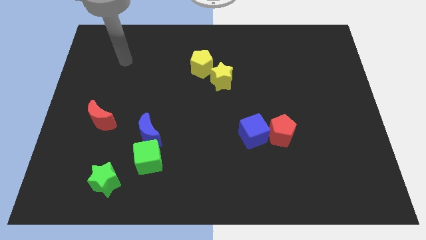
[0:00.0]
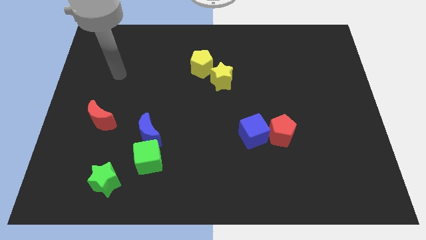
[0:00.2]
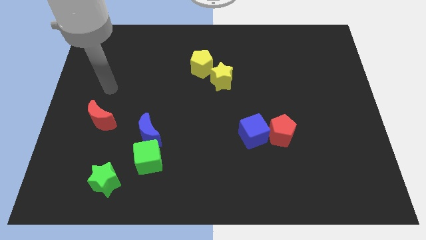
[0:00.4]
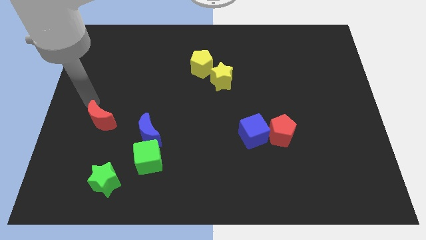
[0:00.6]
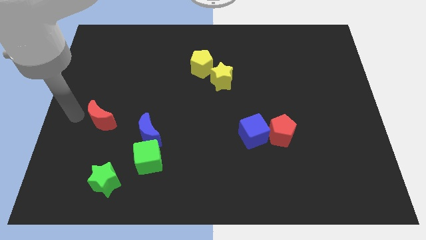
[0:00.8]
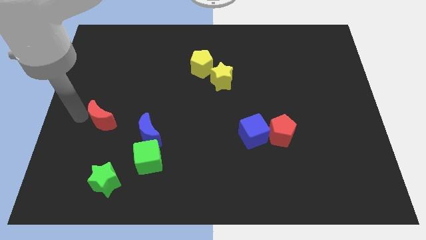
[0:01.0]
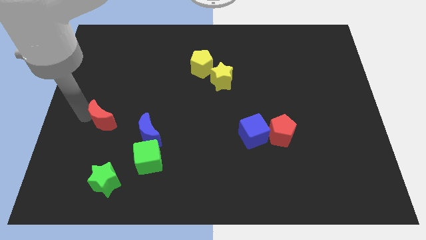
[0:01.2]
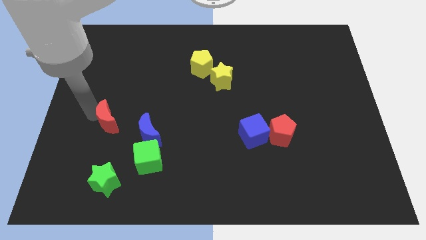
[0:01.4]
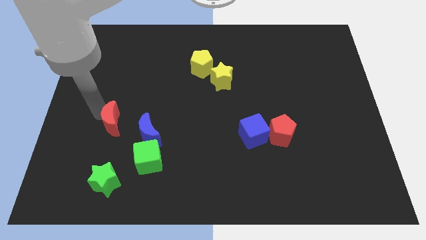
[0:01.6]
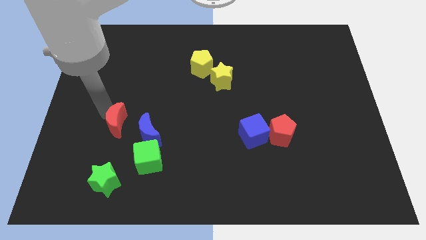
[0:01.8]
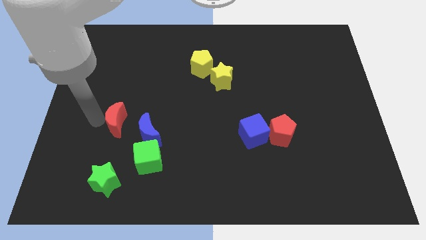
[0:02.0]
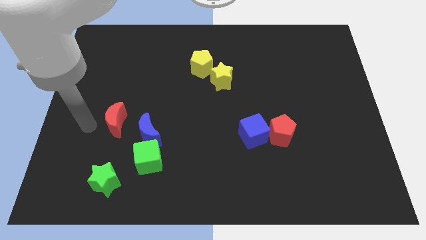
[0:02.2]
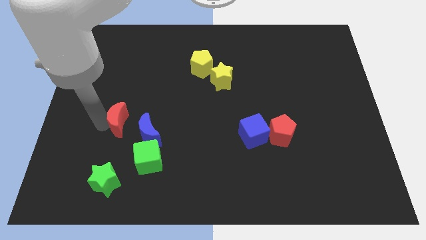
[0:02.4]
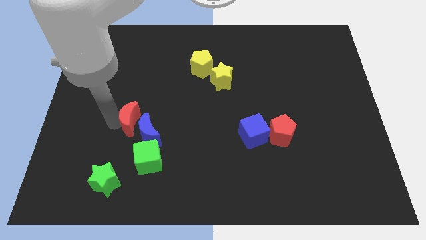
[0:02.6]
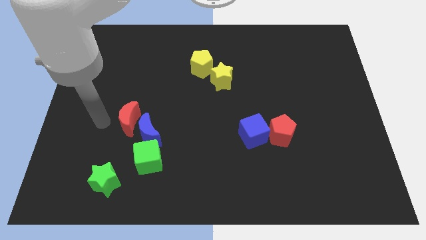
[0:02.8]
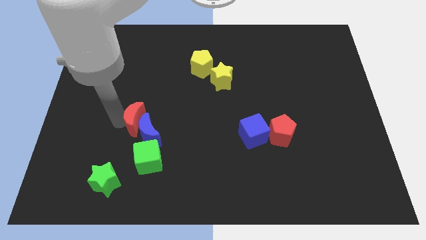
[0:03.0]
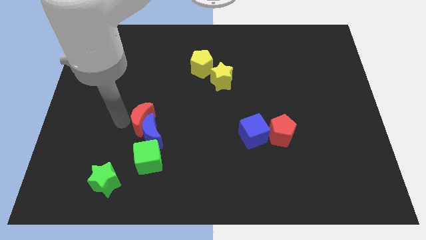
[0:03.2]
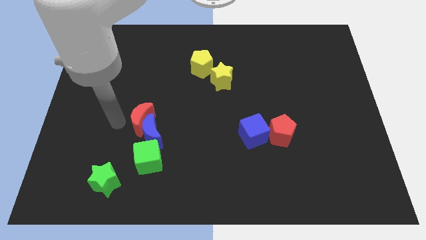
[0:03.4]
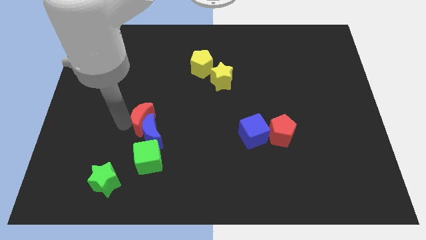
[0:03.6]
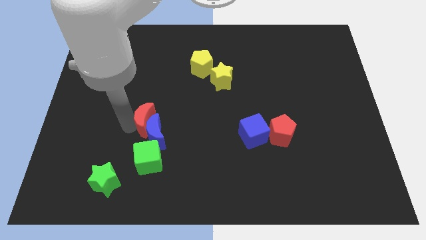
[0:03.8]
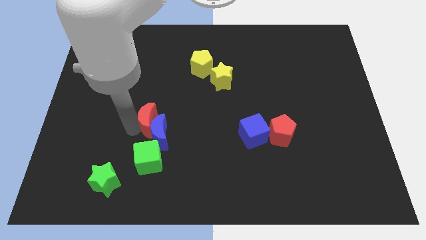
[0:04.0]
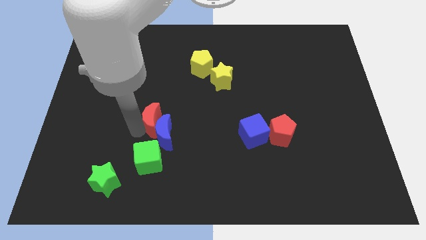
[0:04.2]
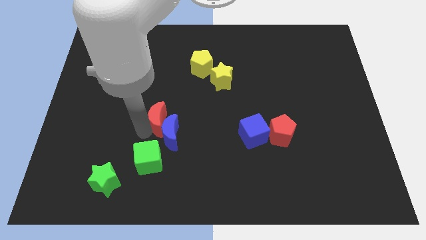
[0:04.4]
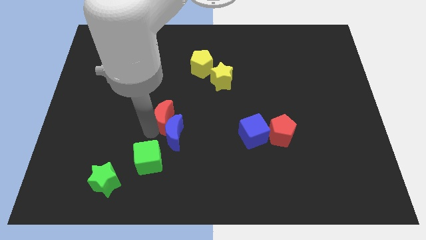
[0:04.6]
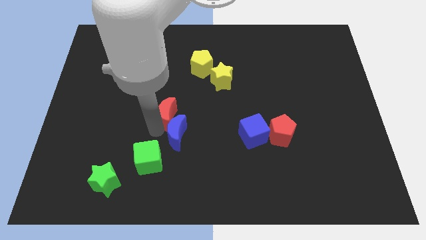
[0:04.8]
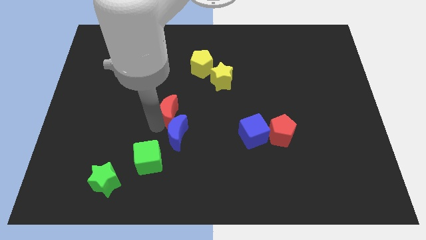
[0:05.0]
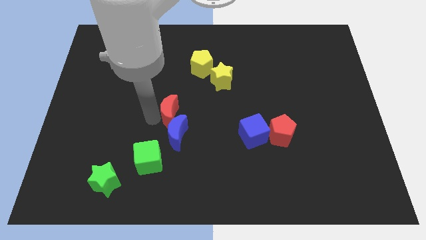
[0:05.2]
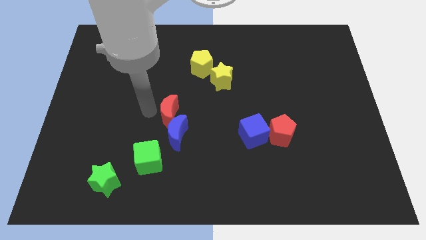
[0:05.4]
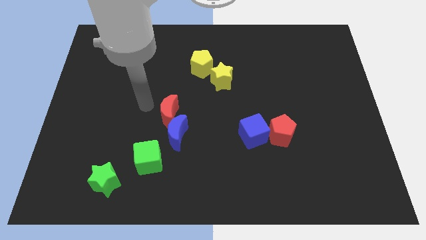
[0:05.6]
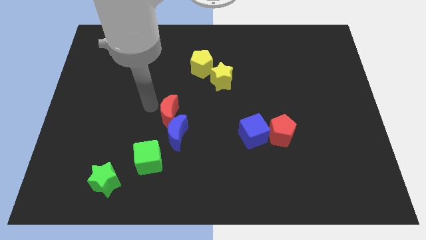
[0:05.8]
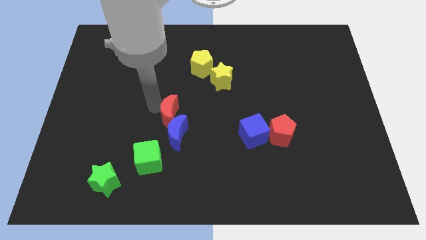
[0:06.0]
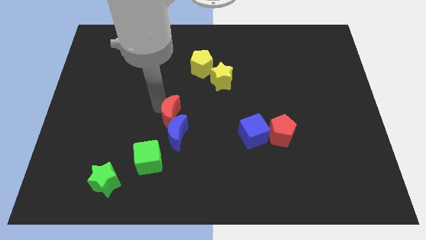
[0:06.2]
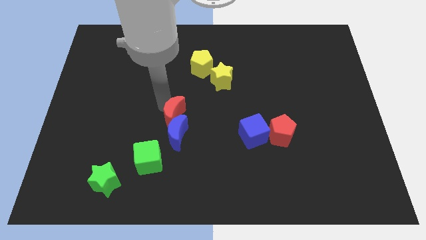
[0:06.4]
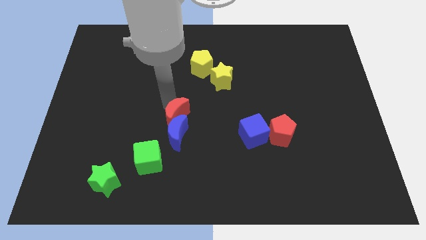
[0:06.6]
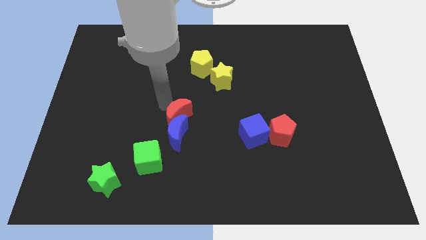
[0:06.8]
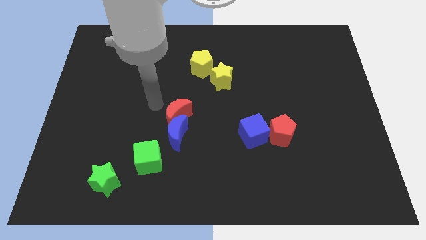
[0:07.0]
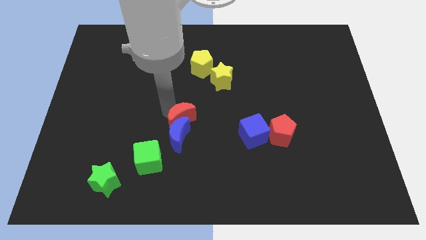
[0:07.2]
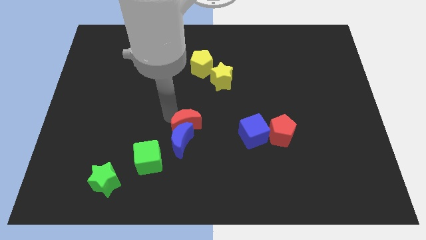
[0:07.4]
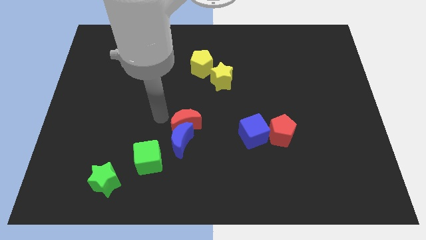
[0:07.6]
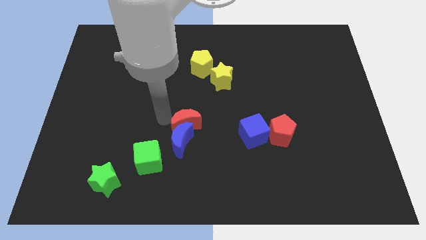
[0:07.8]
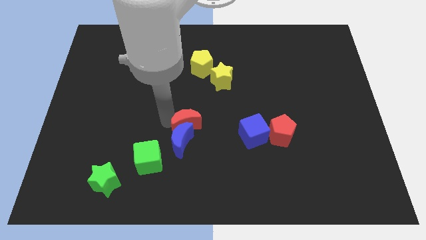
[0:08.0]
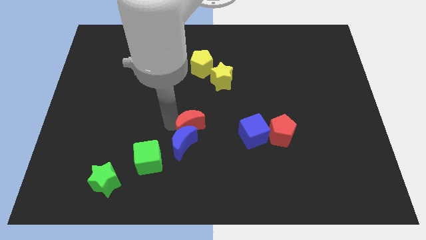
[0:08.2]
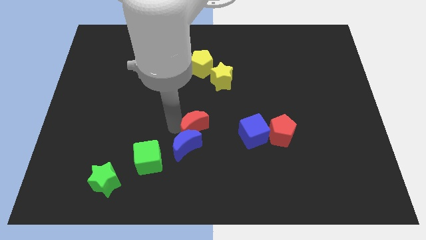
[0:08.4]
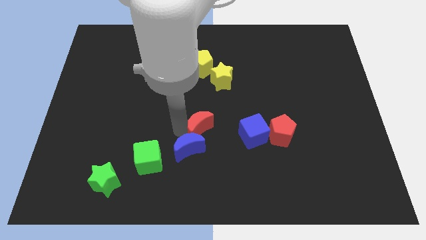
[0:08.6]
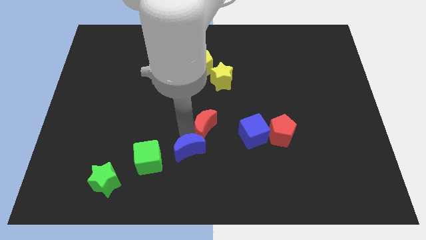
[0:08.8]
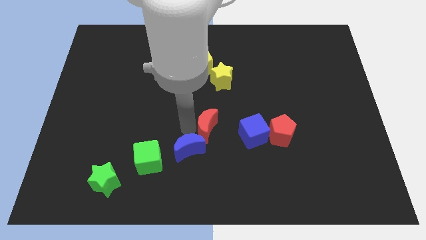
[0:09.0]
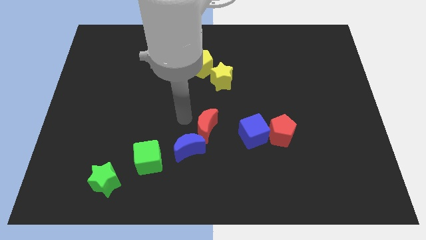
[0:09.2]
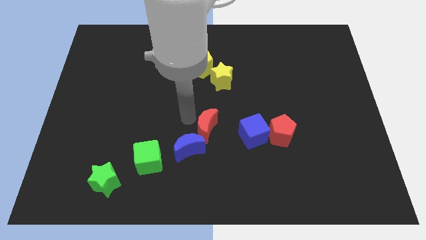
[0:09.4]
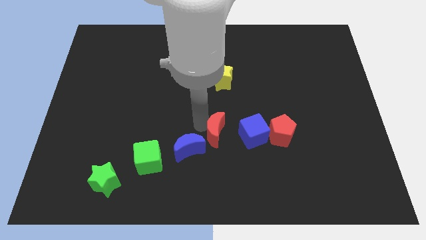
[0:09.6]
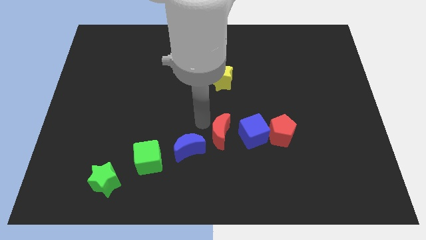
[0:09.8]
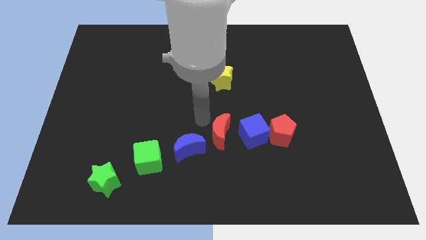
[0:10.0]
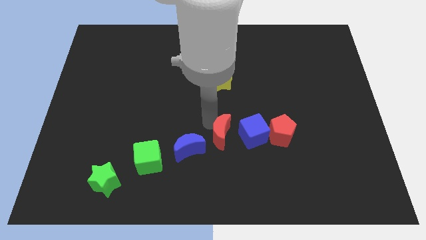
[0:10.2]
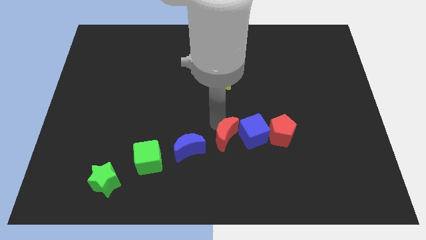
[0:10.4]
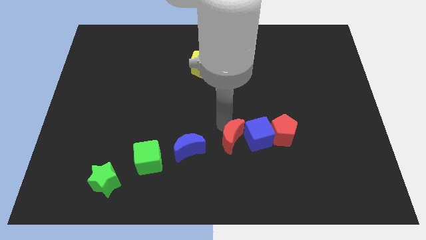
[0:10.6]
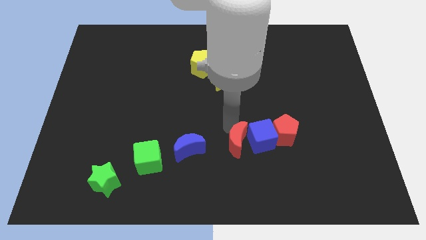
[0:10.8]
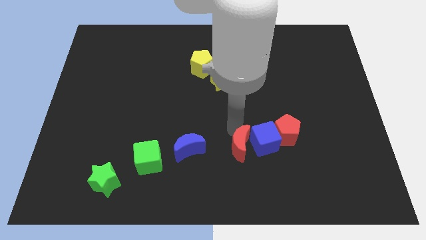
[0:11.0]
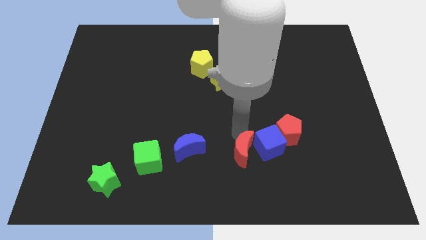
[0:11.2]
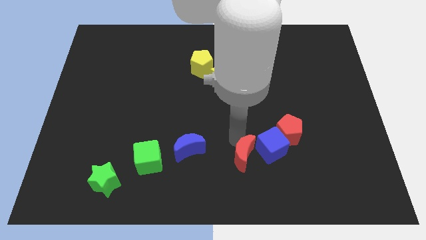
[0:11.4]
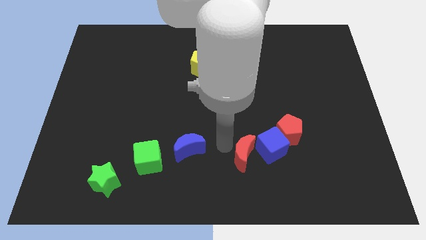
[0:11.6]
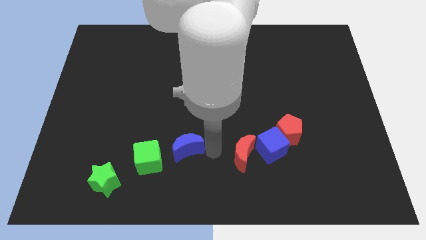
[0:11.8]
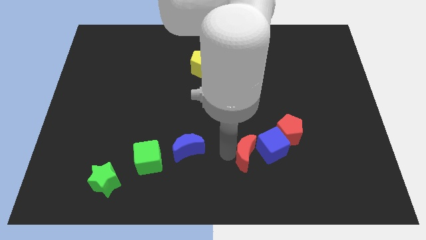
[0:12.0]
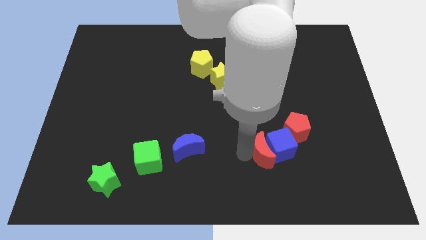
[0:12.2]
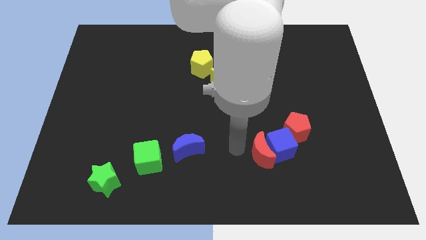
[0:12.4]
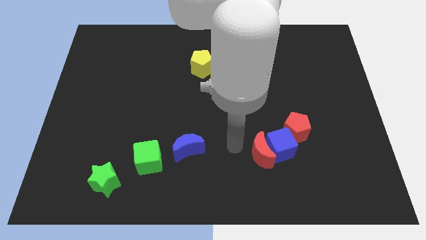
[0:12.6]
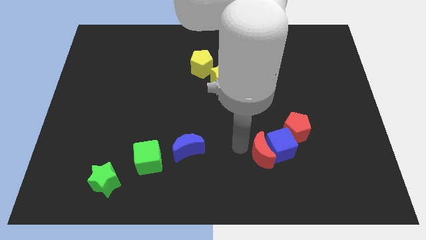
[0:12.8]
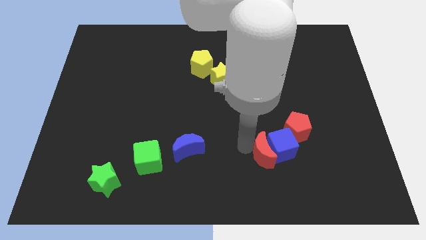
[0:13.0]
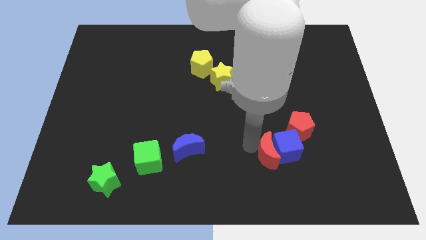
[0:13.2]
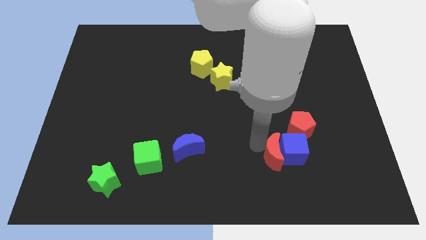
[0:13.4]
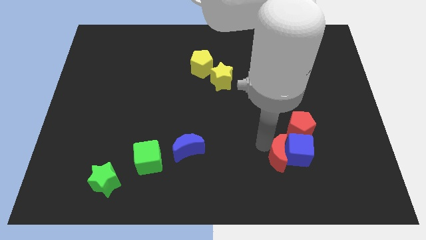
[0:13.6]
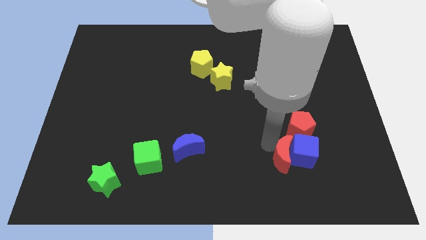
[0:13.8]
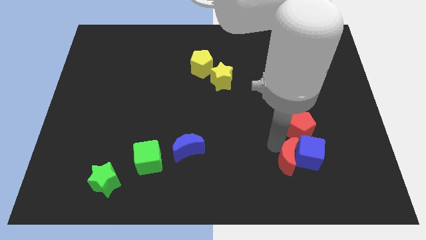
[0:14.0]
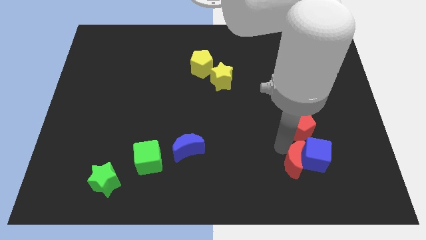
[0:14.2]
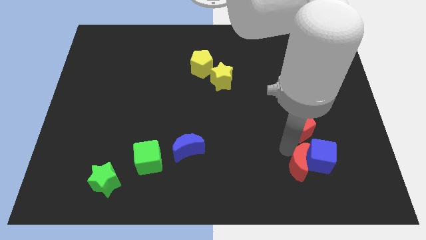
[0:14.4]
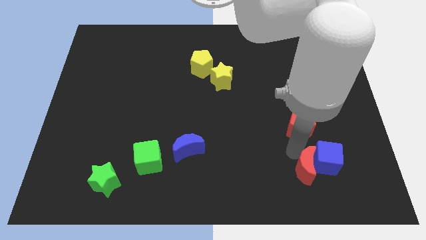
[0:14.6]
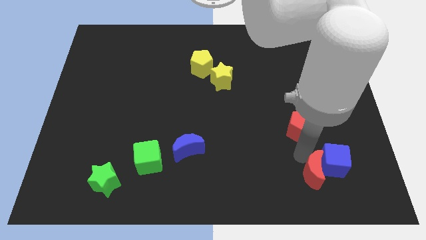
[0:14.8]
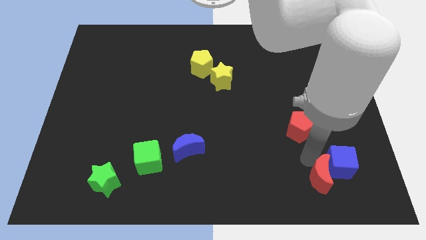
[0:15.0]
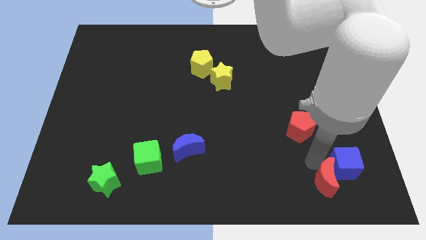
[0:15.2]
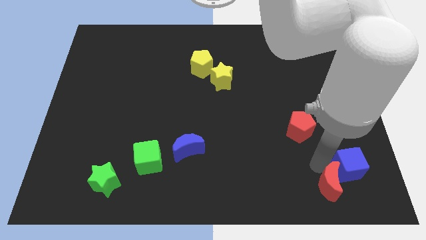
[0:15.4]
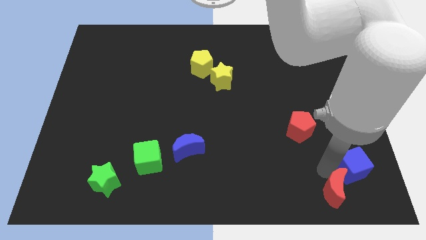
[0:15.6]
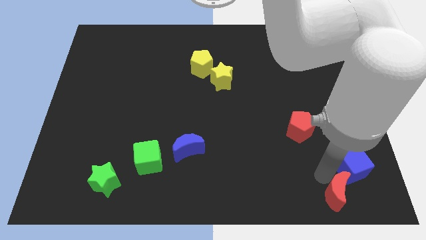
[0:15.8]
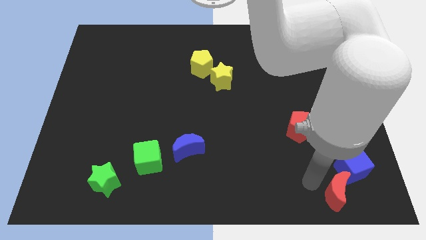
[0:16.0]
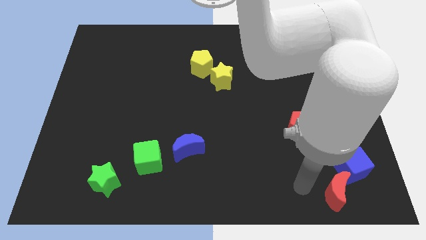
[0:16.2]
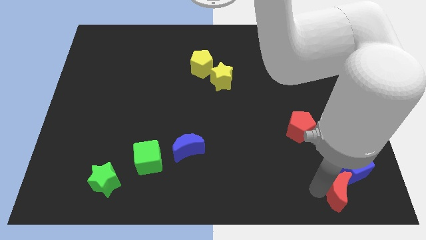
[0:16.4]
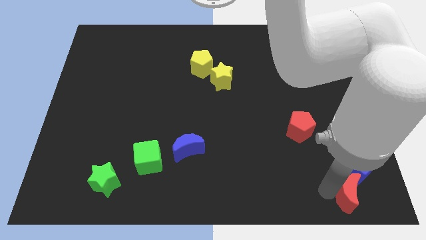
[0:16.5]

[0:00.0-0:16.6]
put the red moon to the bottom right of the board
